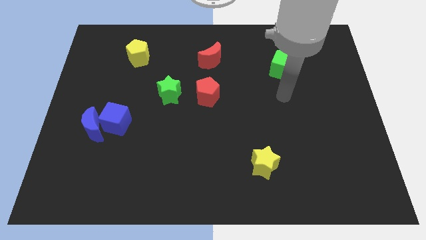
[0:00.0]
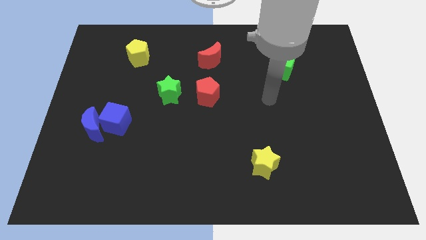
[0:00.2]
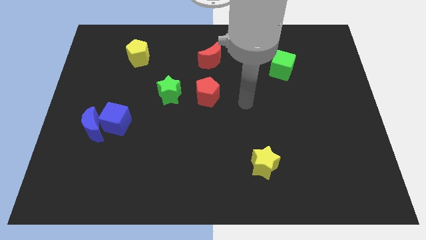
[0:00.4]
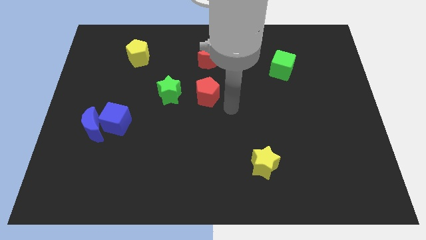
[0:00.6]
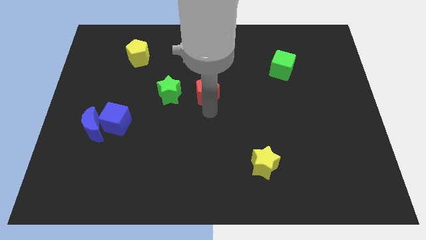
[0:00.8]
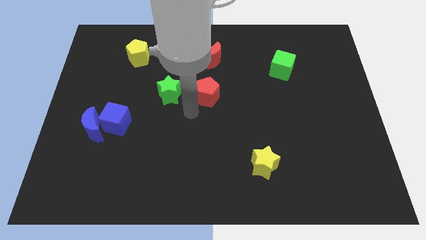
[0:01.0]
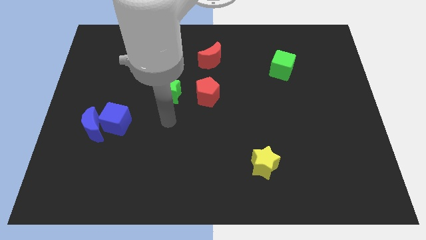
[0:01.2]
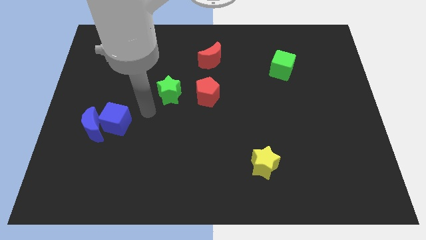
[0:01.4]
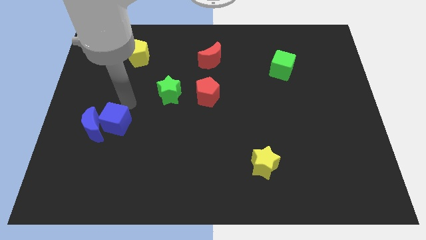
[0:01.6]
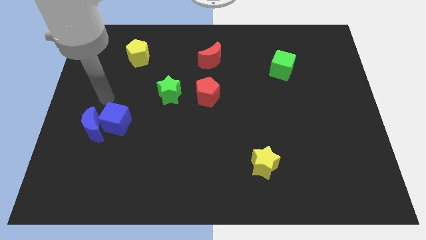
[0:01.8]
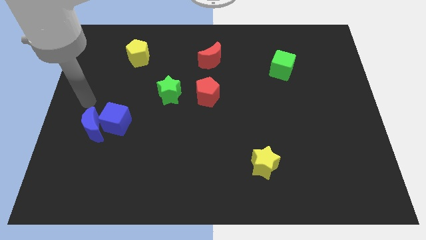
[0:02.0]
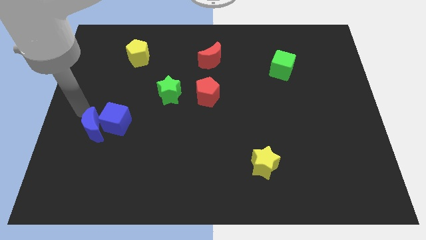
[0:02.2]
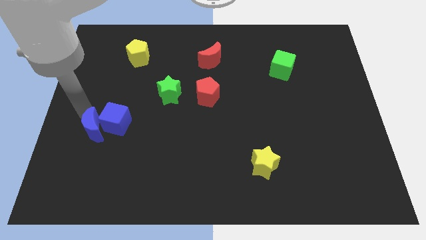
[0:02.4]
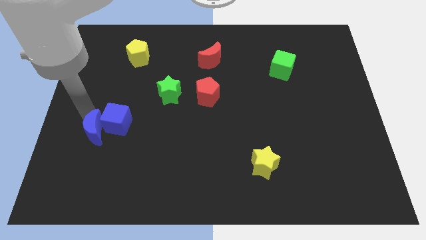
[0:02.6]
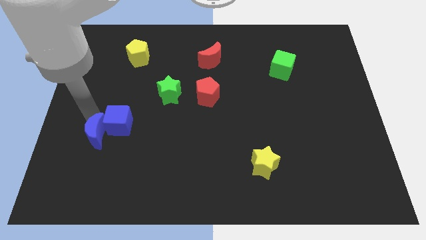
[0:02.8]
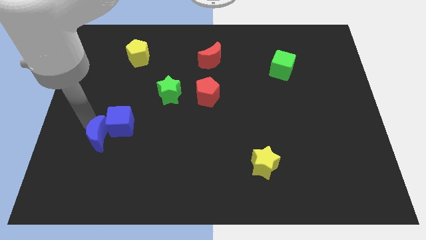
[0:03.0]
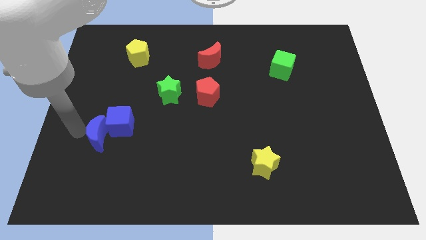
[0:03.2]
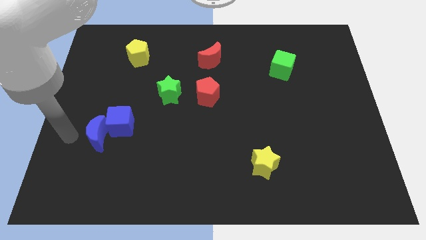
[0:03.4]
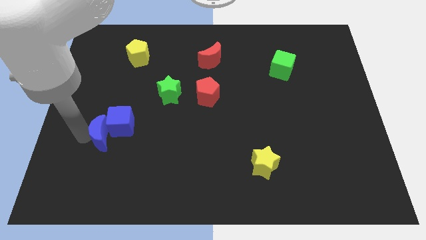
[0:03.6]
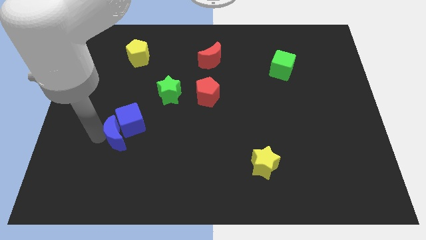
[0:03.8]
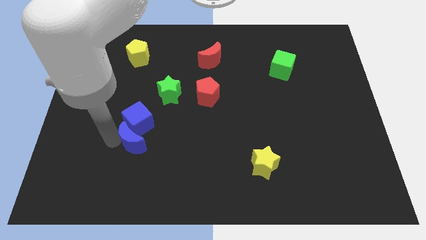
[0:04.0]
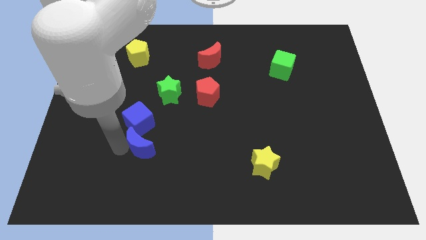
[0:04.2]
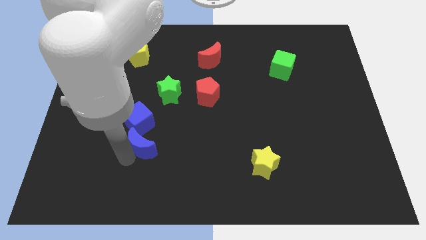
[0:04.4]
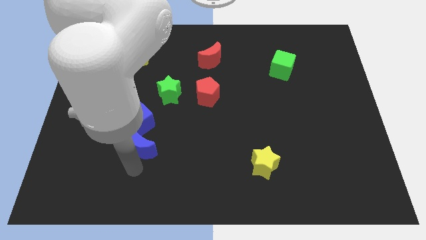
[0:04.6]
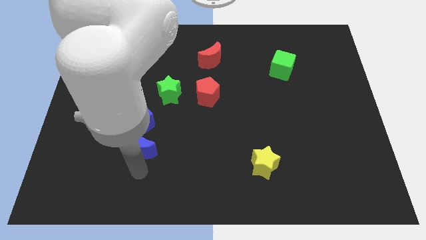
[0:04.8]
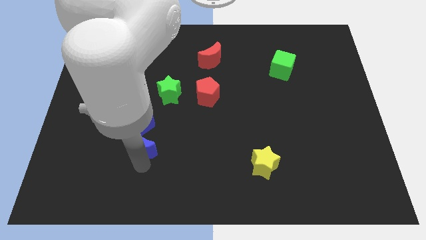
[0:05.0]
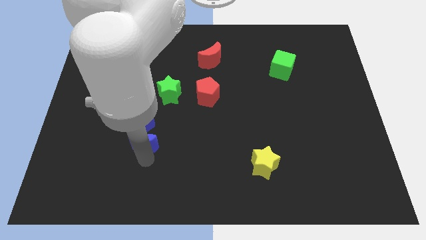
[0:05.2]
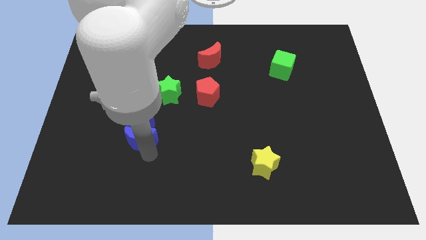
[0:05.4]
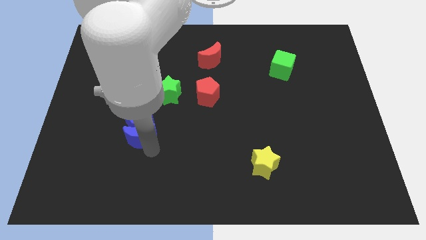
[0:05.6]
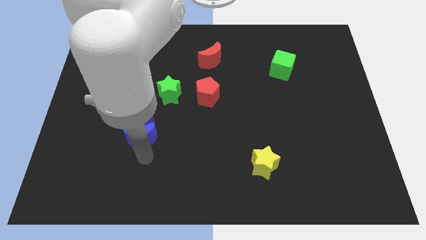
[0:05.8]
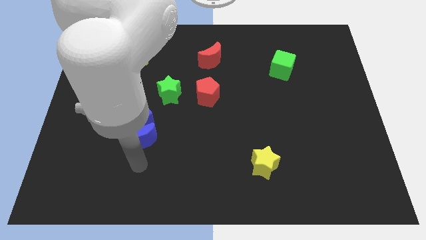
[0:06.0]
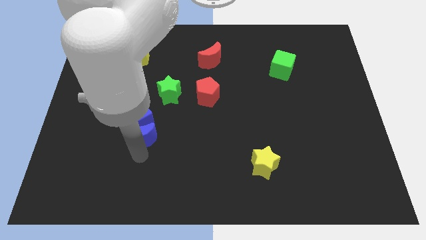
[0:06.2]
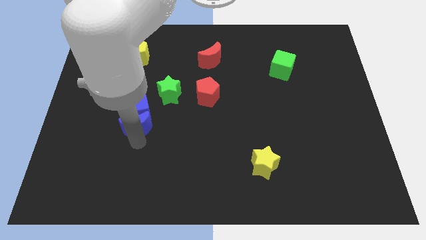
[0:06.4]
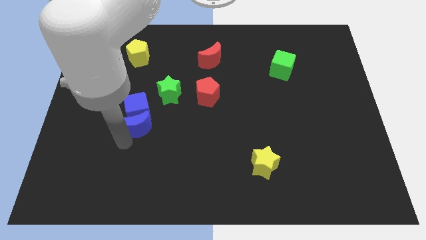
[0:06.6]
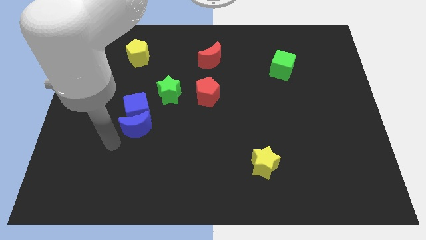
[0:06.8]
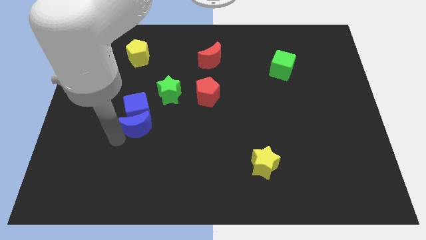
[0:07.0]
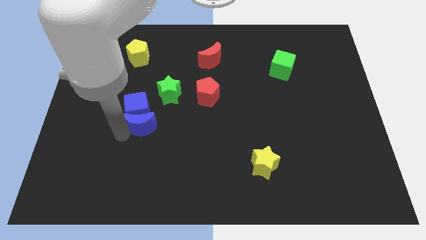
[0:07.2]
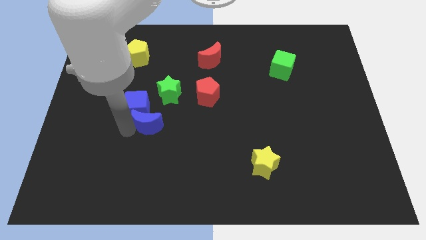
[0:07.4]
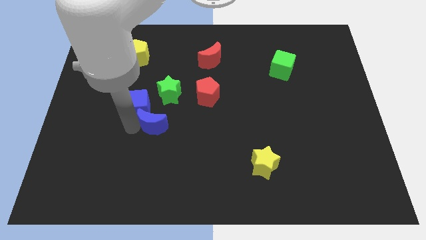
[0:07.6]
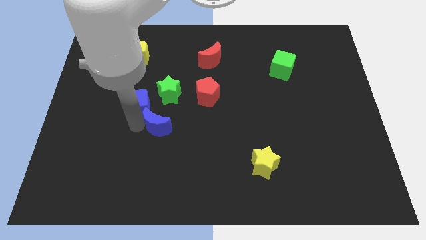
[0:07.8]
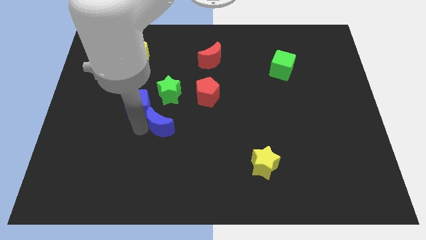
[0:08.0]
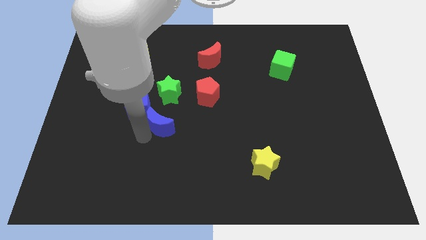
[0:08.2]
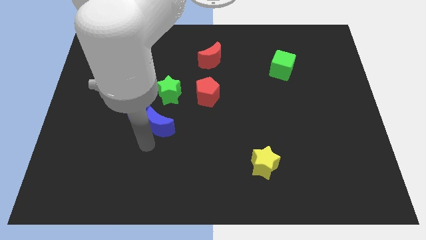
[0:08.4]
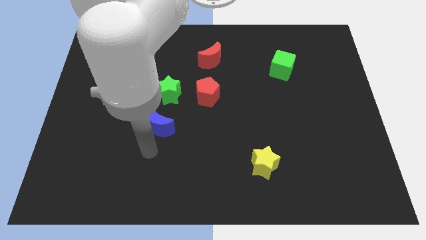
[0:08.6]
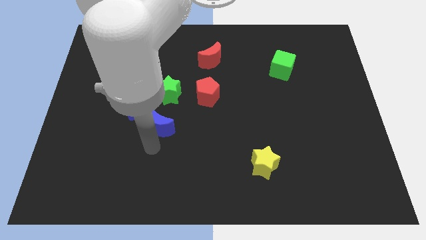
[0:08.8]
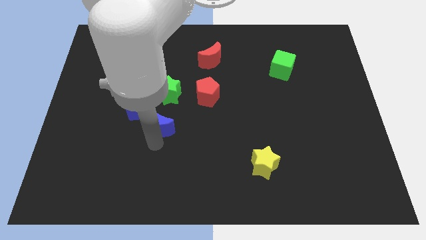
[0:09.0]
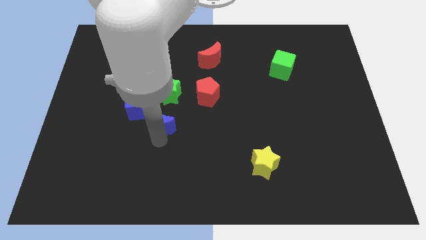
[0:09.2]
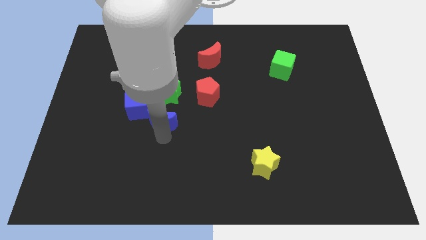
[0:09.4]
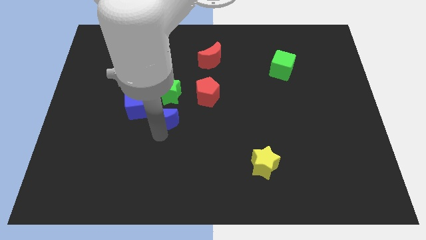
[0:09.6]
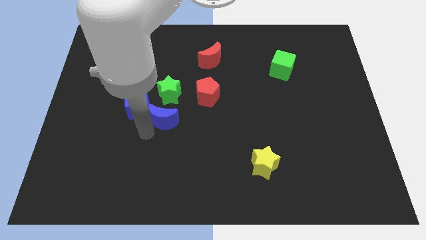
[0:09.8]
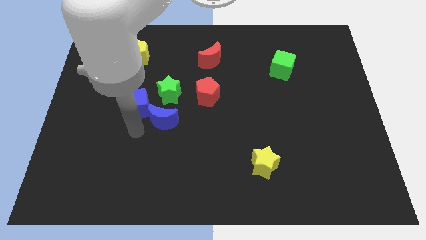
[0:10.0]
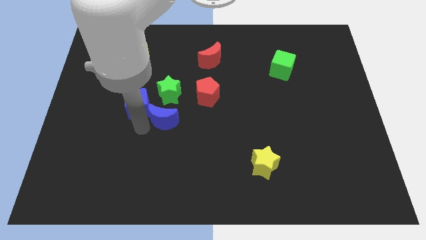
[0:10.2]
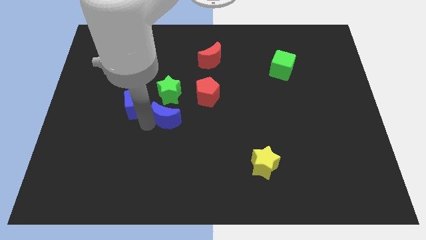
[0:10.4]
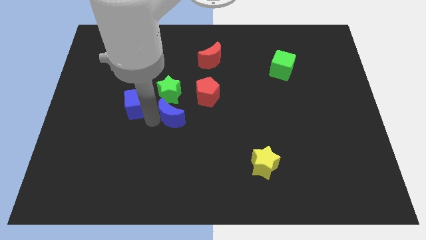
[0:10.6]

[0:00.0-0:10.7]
move the blue moon to the bottom right of the green star

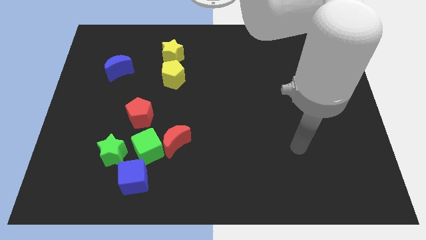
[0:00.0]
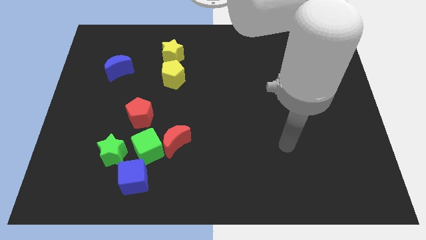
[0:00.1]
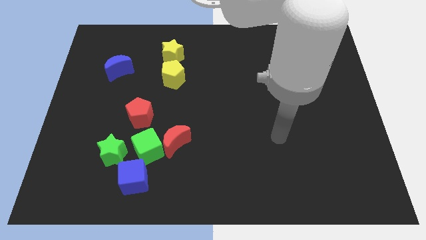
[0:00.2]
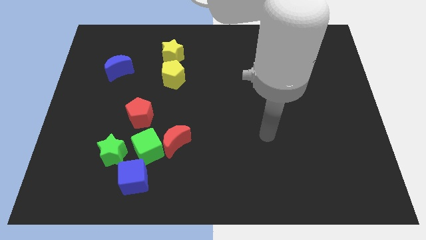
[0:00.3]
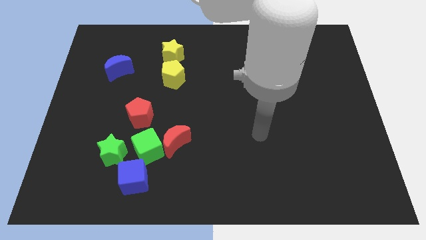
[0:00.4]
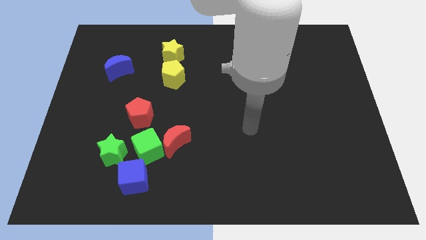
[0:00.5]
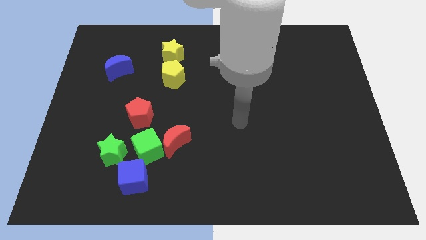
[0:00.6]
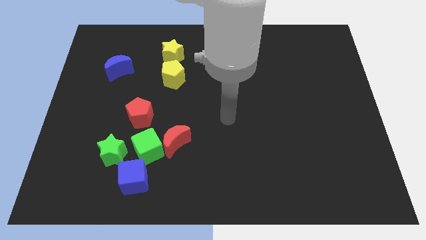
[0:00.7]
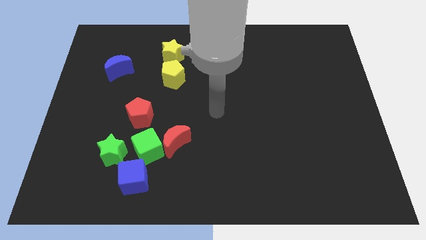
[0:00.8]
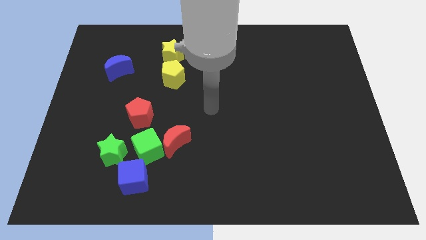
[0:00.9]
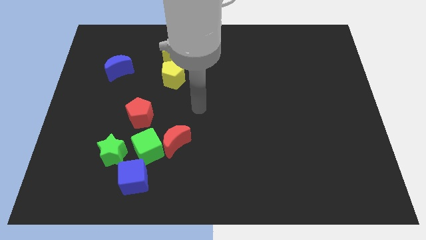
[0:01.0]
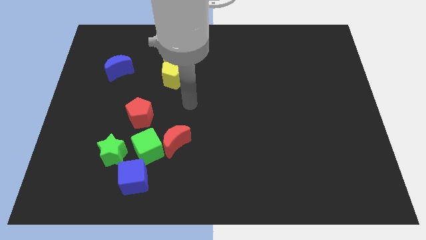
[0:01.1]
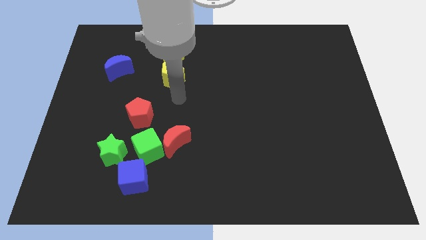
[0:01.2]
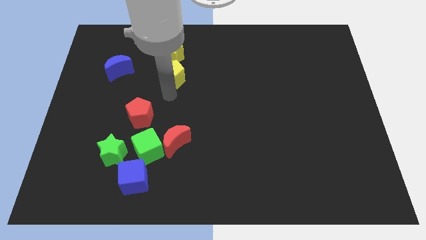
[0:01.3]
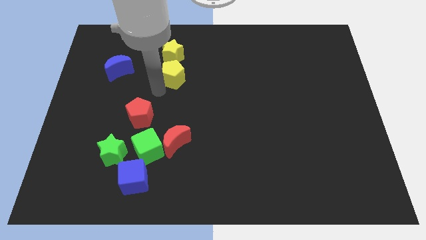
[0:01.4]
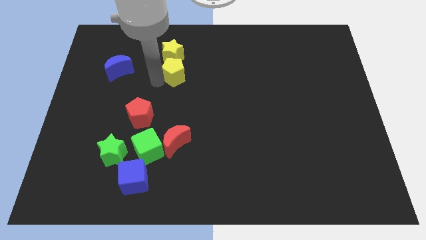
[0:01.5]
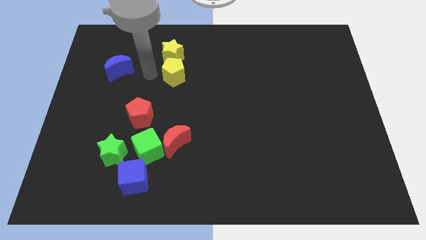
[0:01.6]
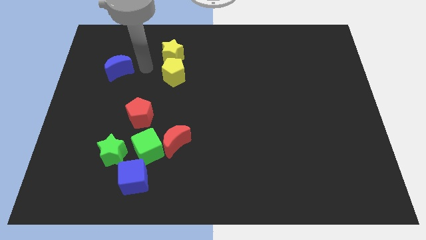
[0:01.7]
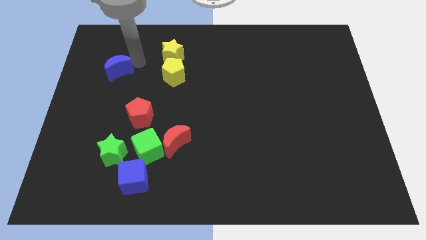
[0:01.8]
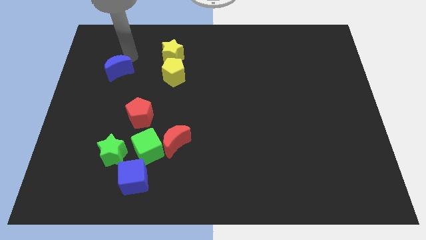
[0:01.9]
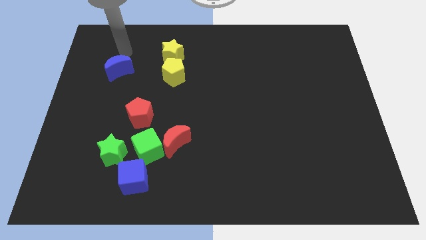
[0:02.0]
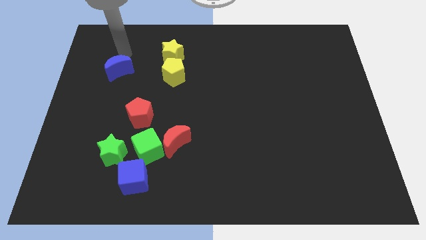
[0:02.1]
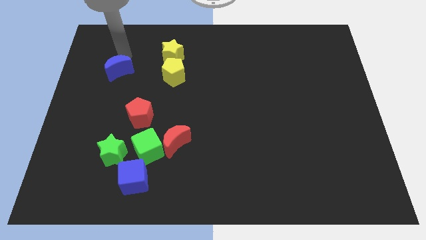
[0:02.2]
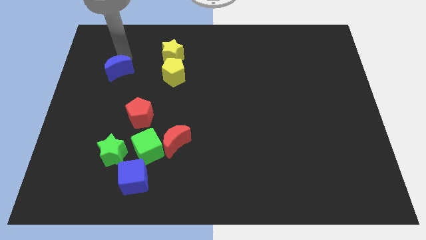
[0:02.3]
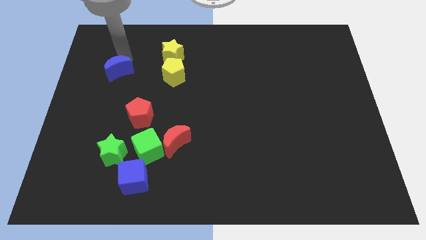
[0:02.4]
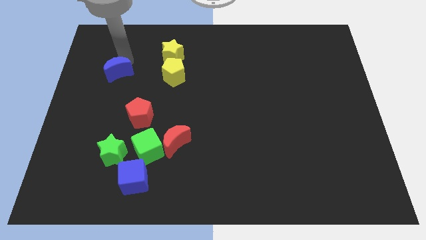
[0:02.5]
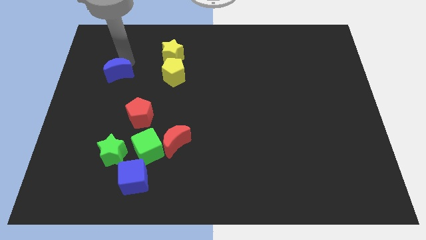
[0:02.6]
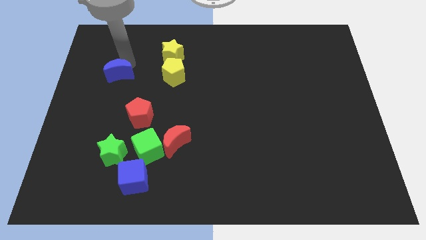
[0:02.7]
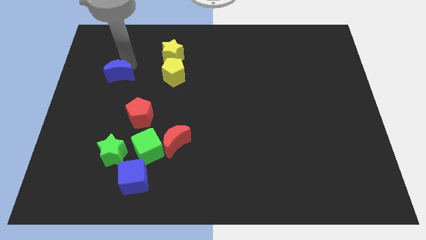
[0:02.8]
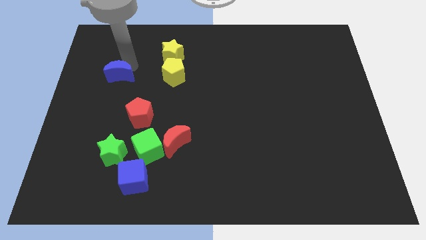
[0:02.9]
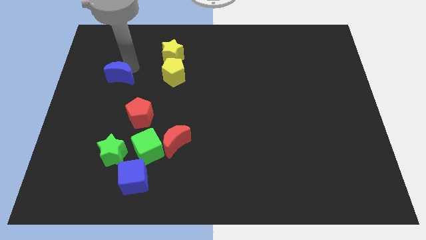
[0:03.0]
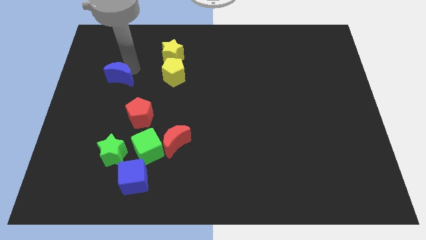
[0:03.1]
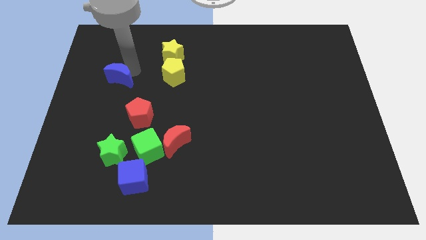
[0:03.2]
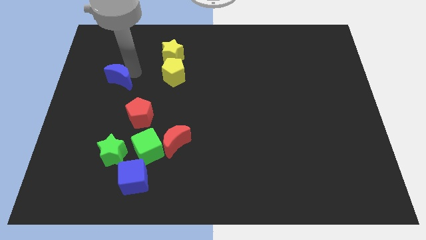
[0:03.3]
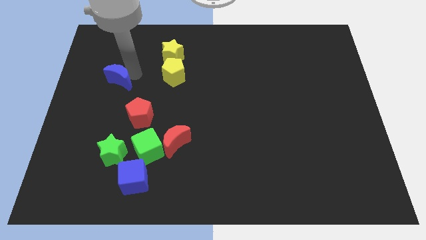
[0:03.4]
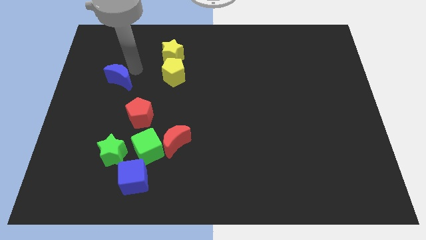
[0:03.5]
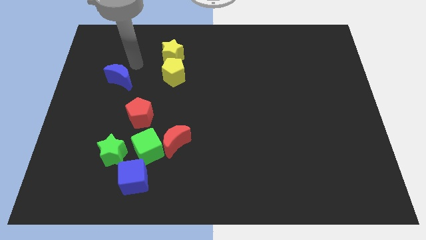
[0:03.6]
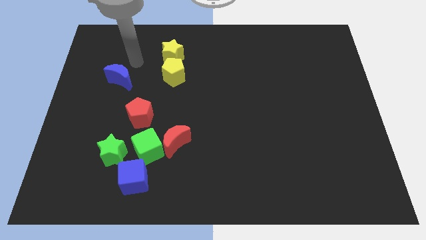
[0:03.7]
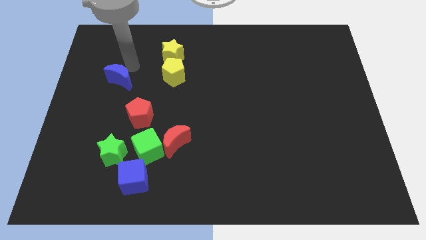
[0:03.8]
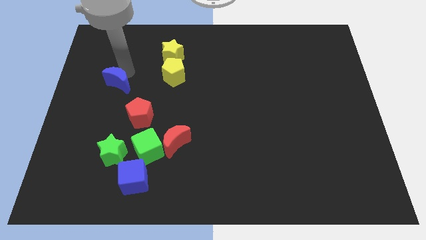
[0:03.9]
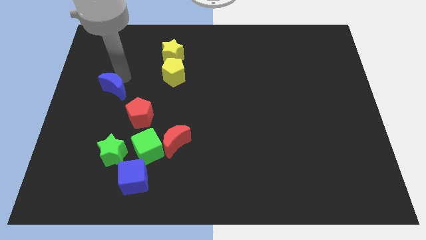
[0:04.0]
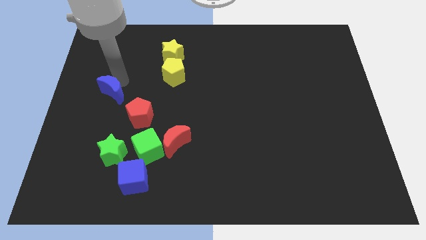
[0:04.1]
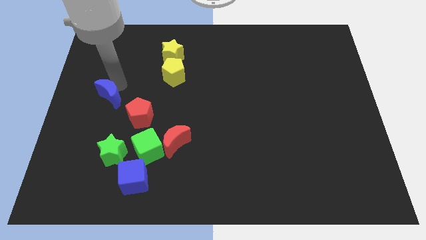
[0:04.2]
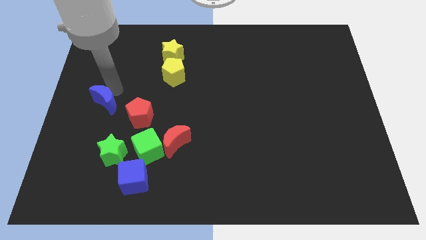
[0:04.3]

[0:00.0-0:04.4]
move the blue moon to the left of the red pentagon
